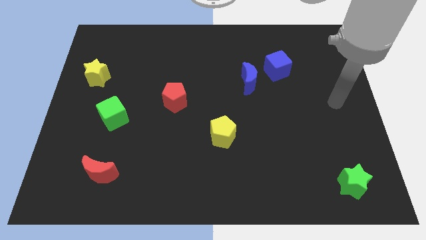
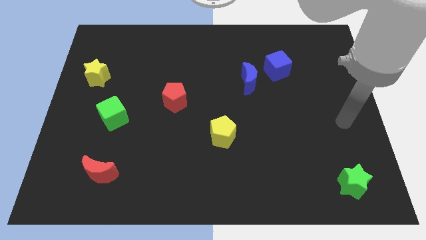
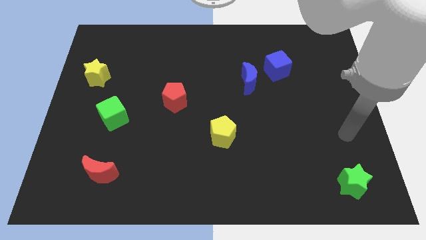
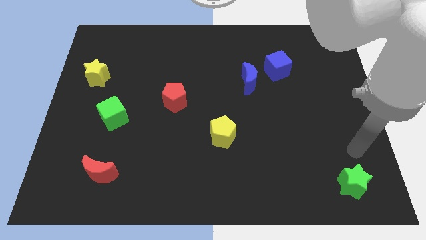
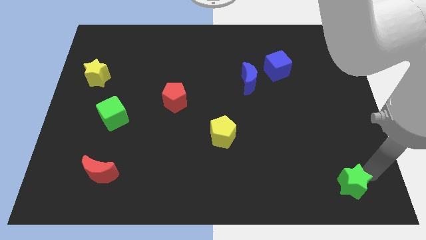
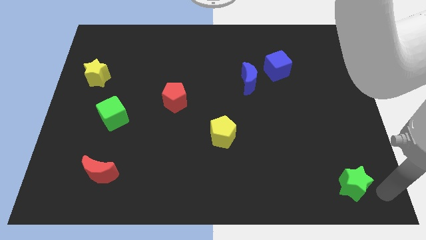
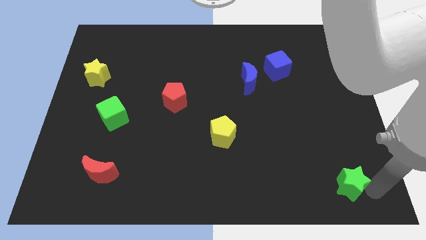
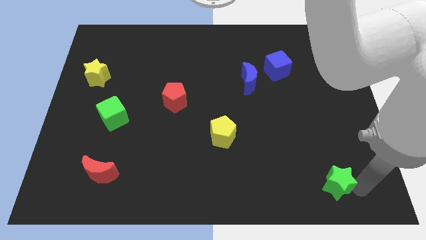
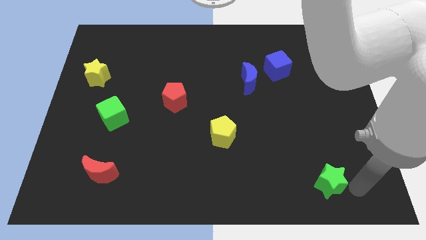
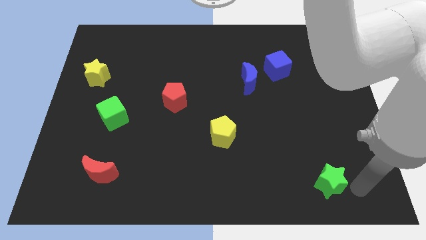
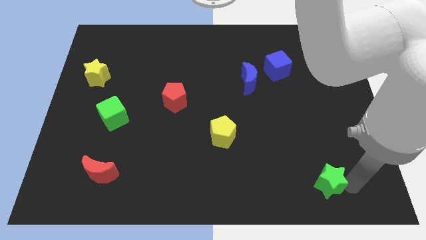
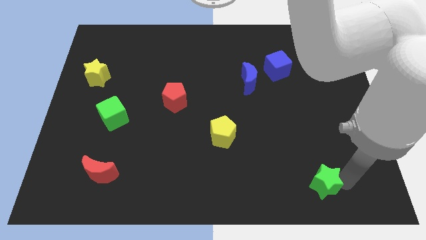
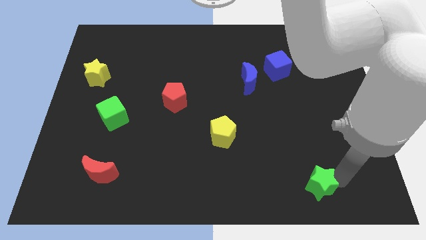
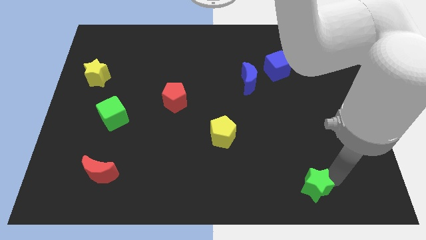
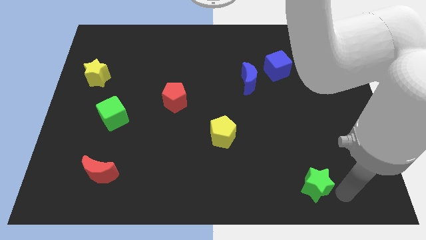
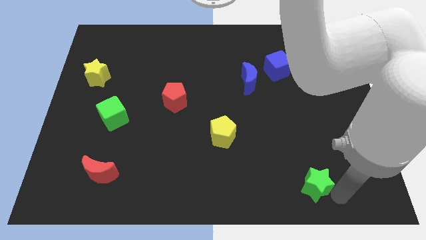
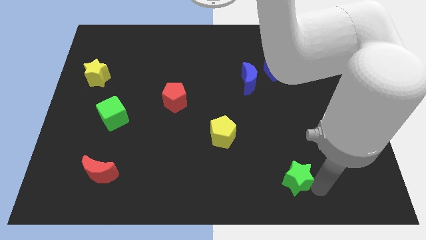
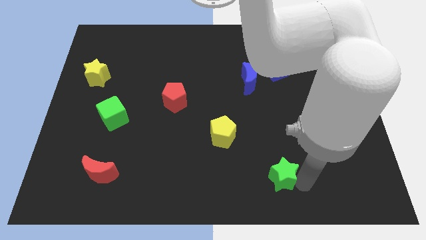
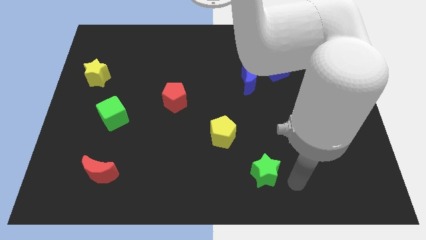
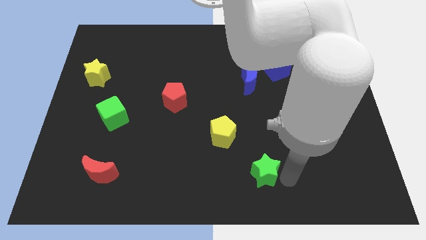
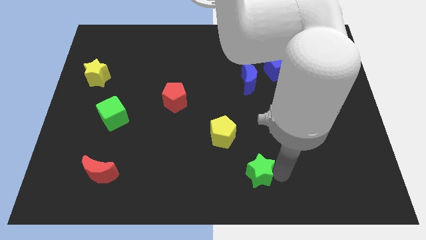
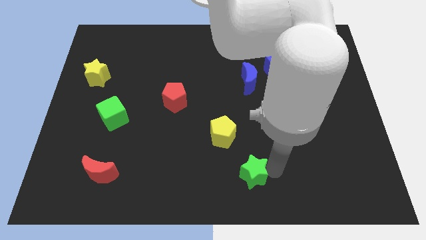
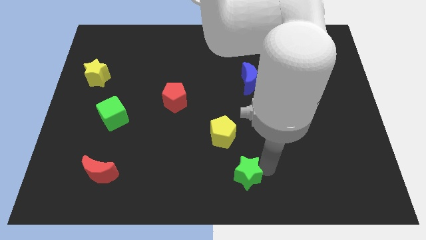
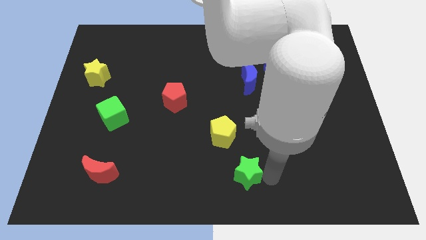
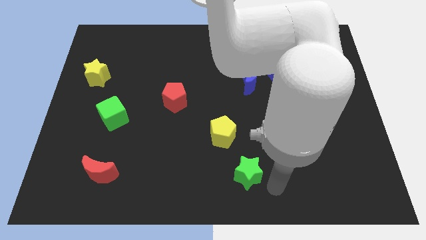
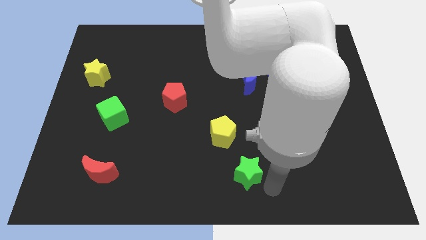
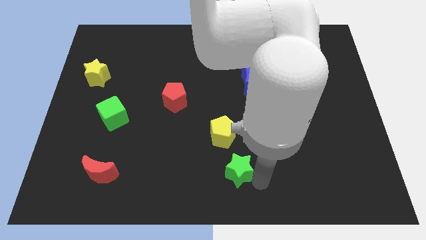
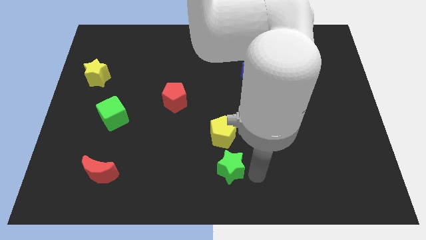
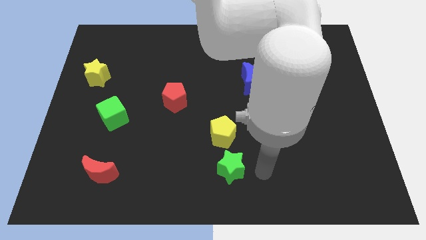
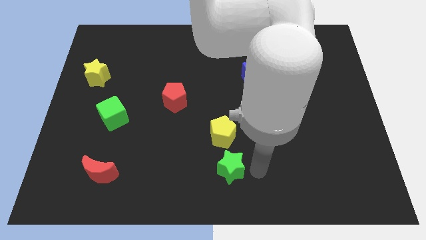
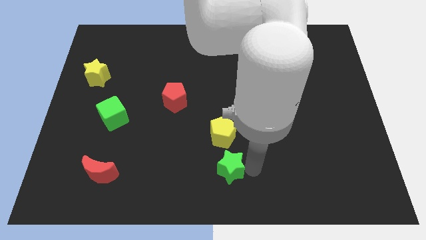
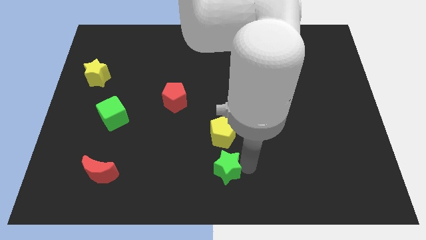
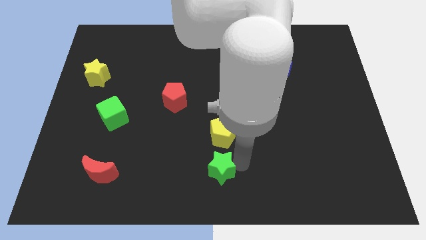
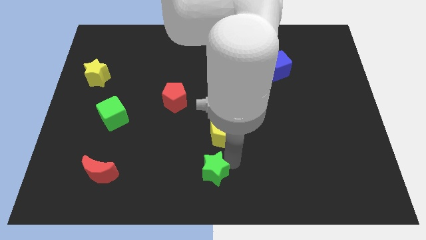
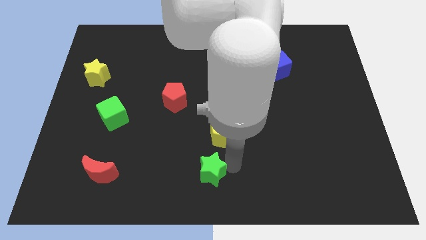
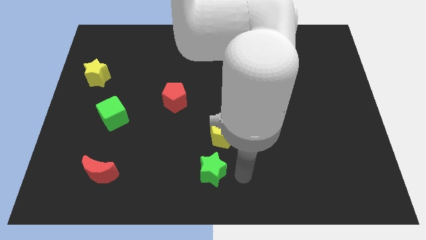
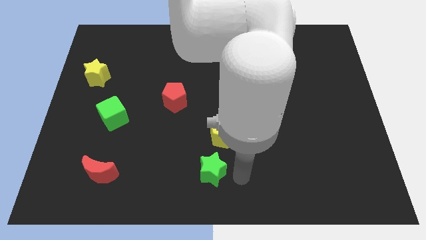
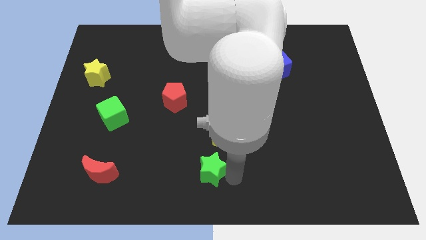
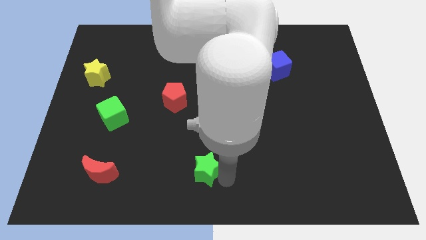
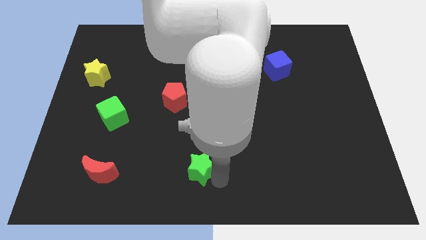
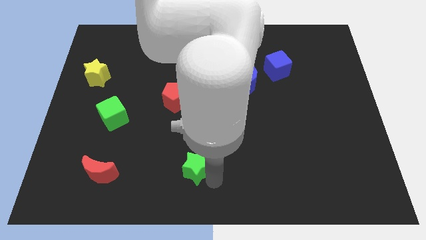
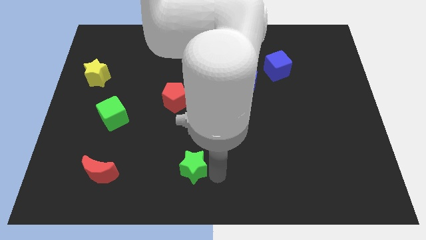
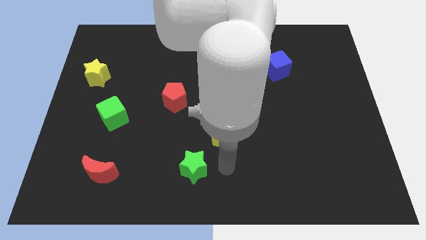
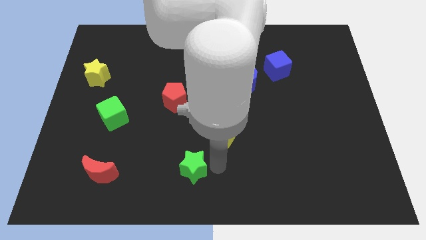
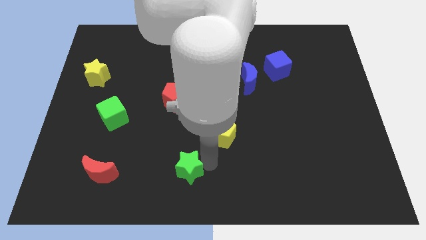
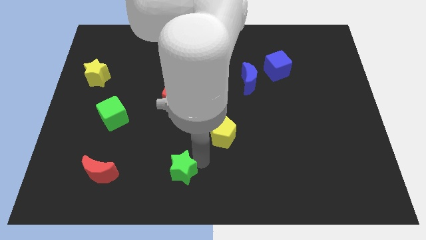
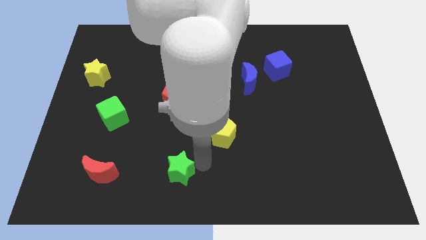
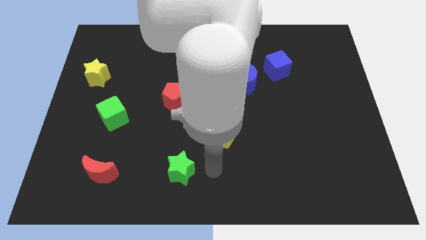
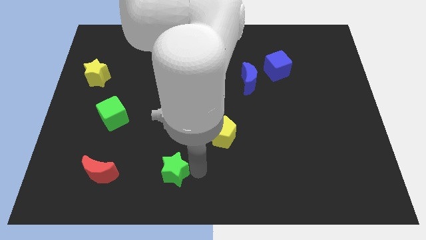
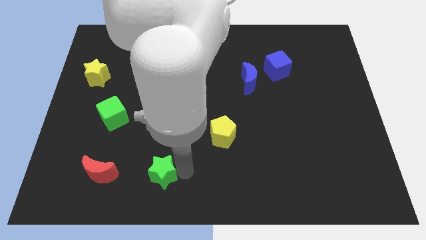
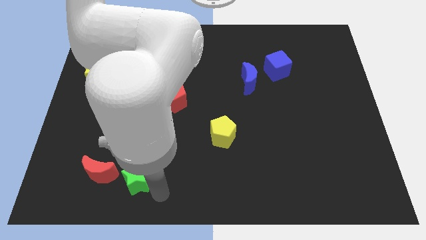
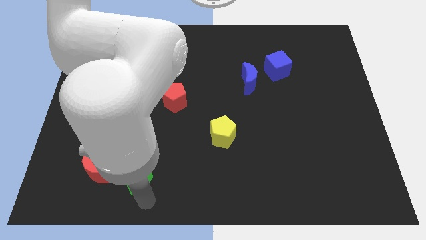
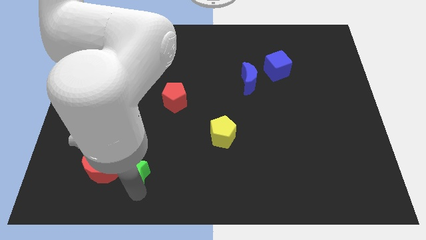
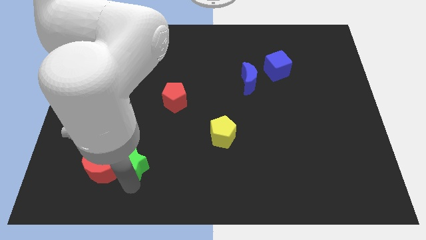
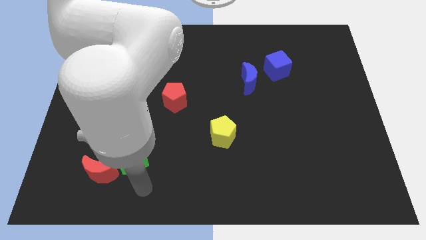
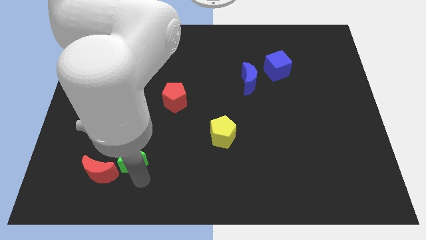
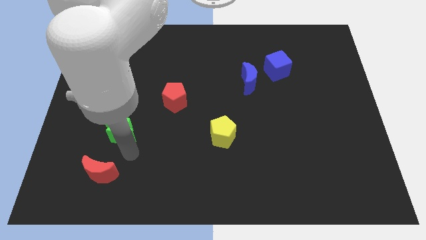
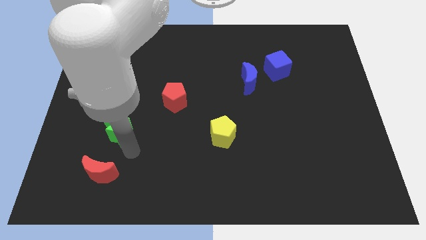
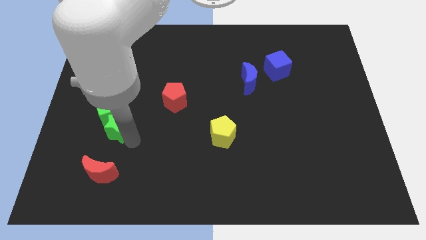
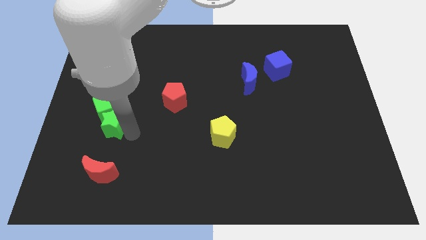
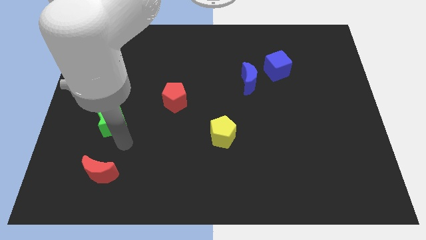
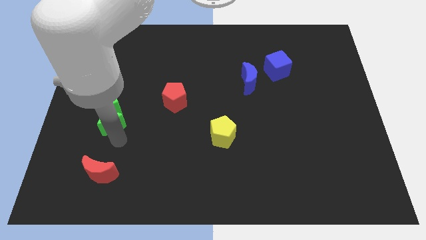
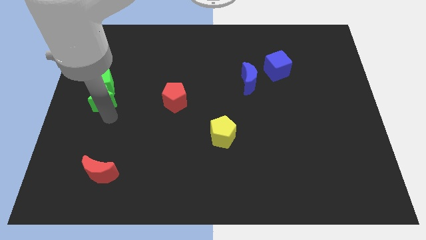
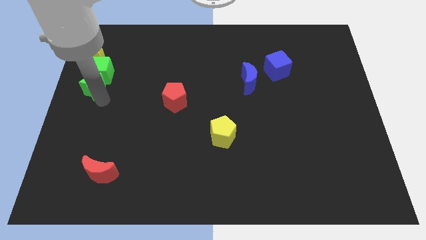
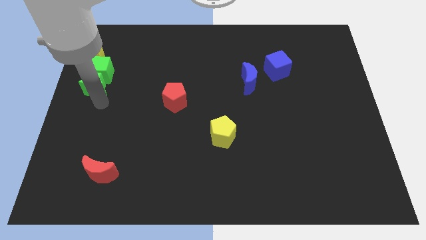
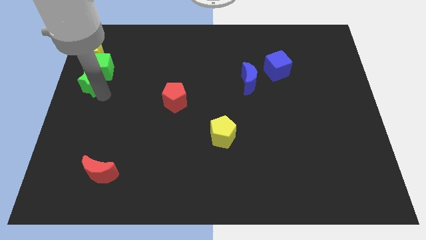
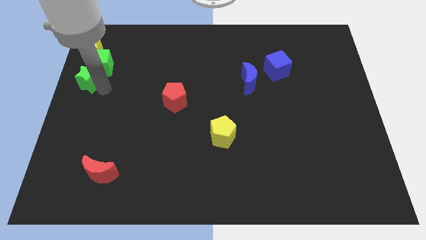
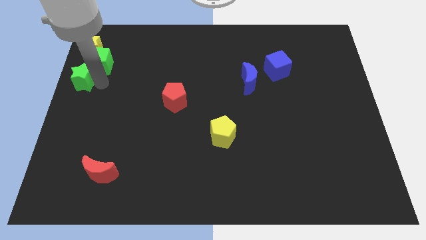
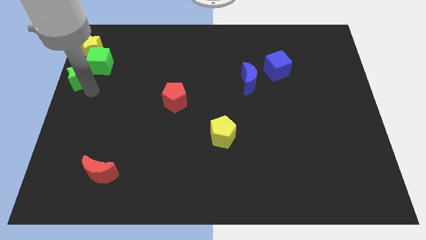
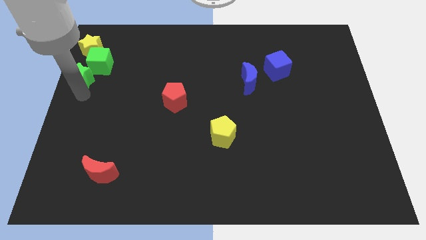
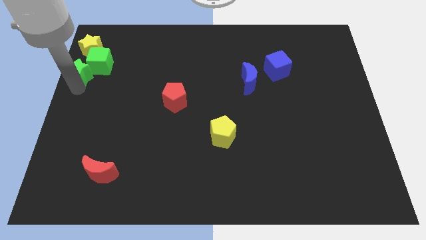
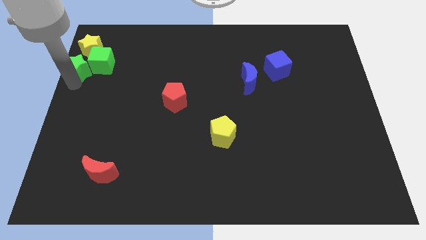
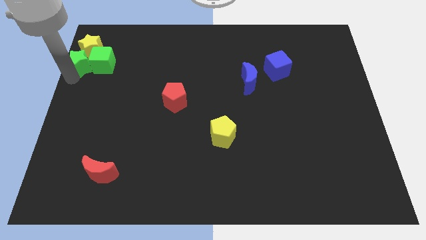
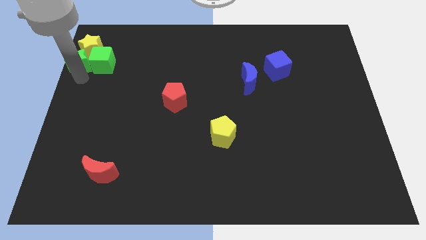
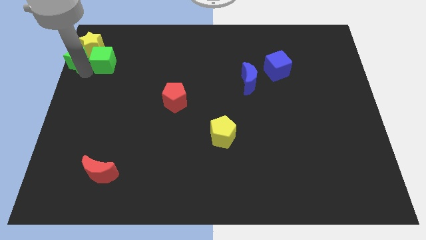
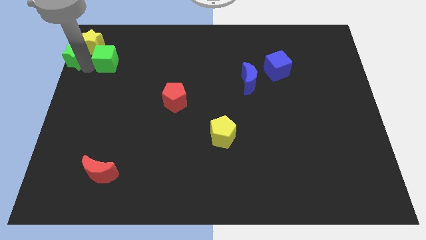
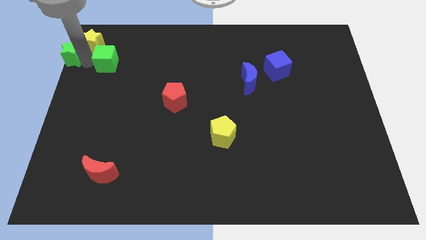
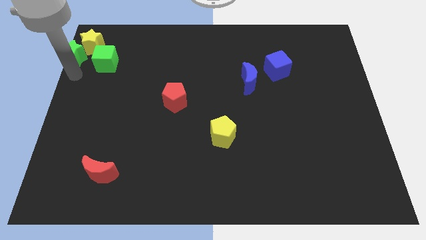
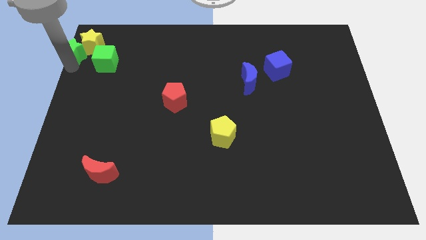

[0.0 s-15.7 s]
slide the green star to the upper left corner
